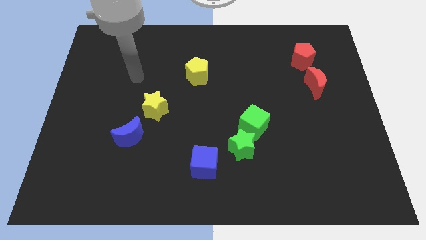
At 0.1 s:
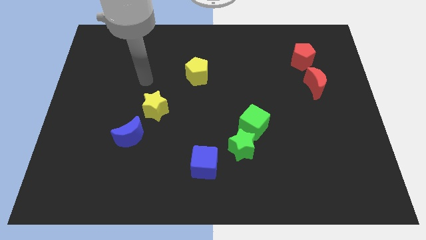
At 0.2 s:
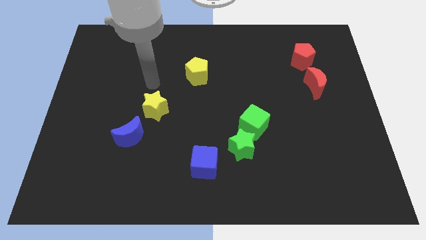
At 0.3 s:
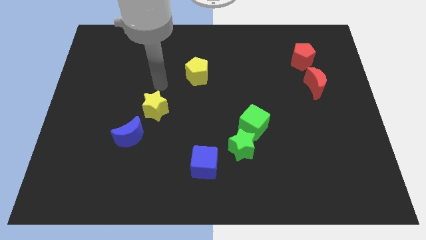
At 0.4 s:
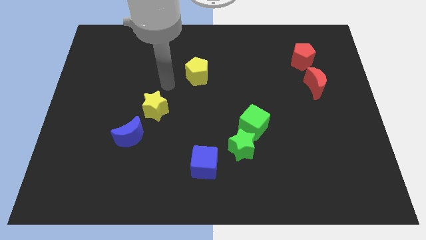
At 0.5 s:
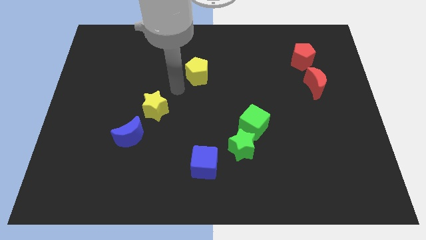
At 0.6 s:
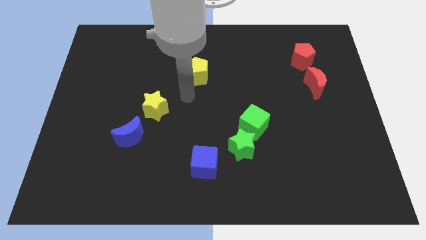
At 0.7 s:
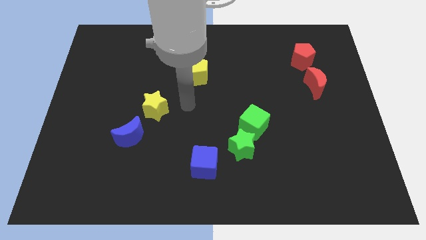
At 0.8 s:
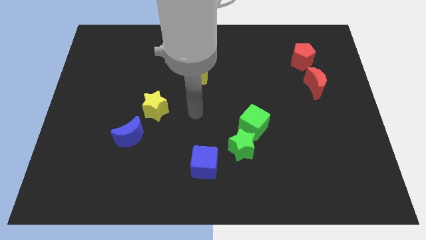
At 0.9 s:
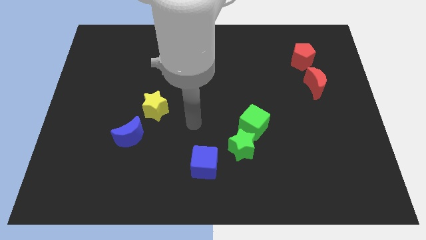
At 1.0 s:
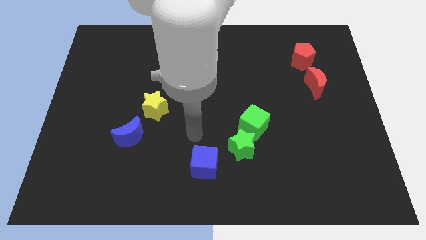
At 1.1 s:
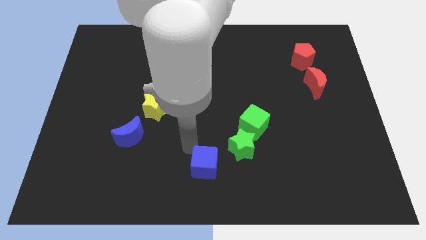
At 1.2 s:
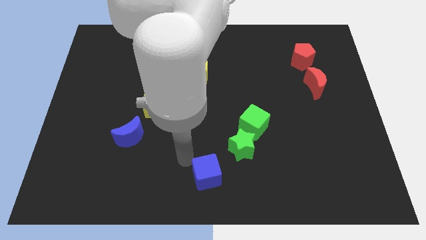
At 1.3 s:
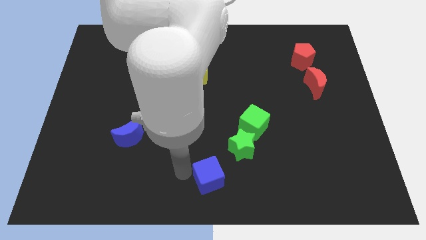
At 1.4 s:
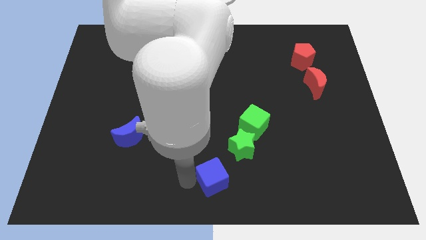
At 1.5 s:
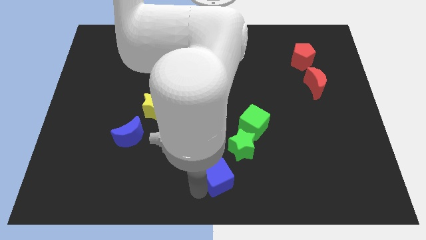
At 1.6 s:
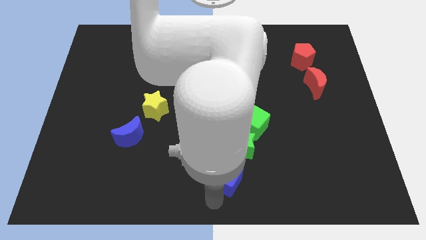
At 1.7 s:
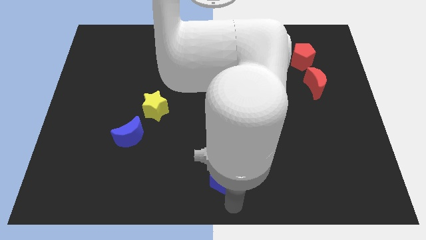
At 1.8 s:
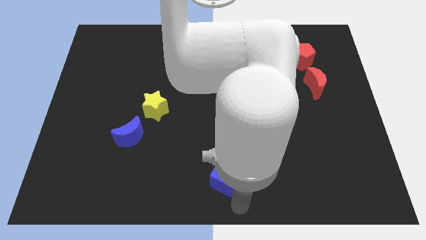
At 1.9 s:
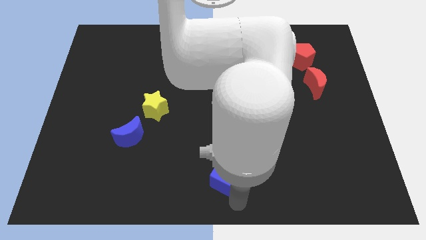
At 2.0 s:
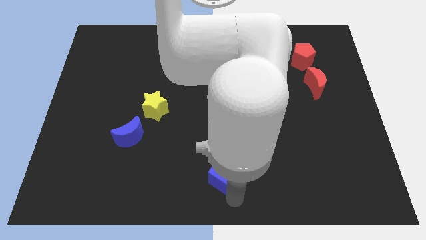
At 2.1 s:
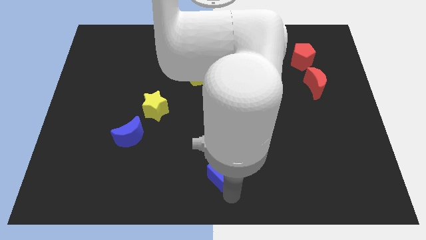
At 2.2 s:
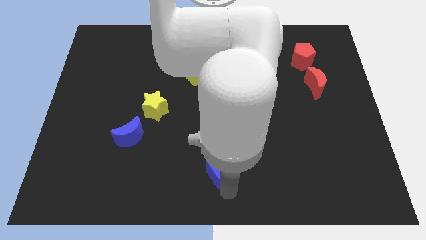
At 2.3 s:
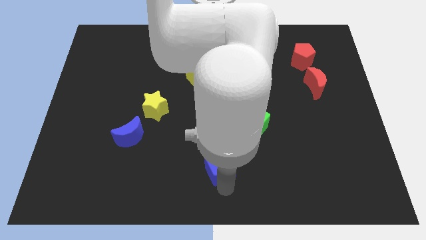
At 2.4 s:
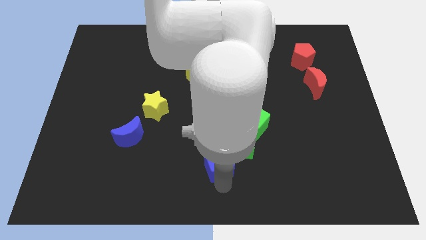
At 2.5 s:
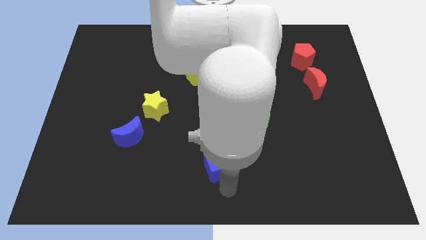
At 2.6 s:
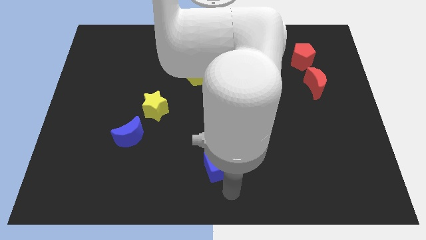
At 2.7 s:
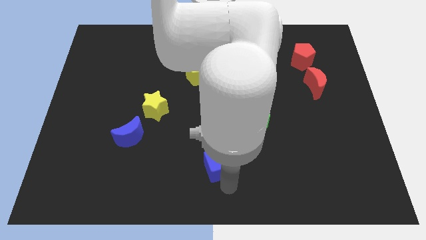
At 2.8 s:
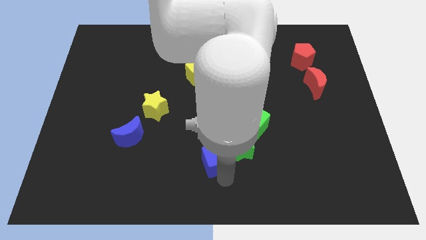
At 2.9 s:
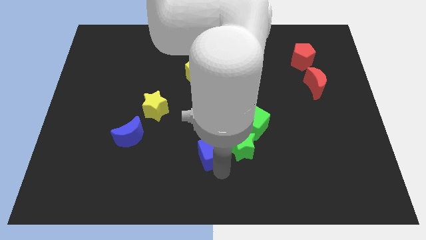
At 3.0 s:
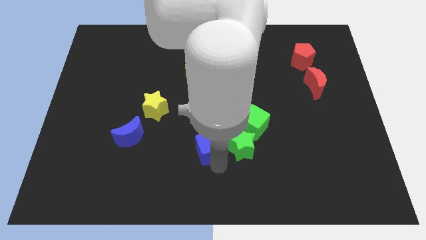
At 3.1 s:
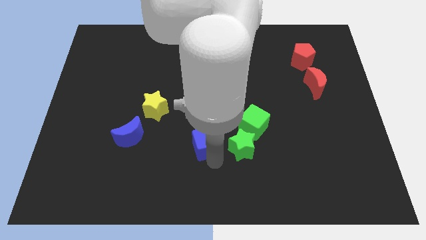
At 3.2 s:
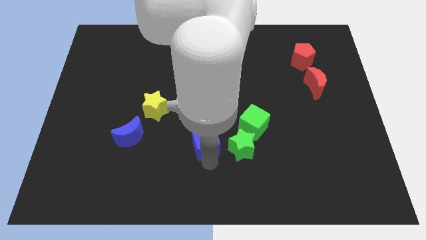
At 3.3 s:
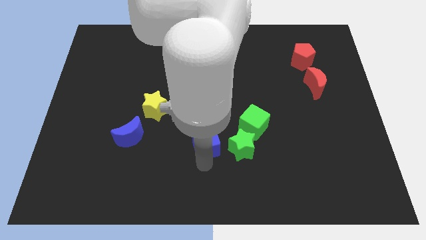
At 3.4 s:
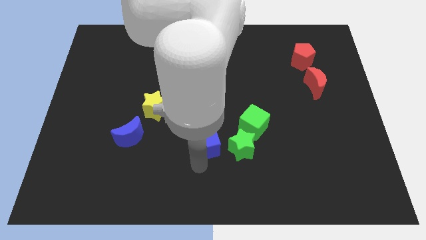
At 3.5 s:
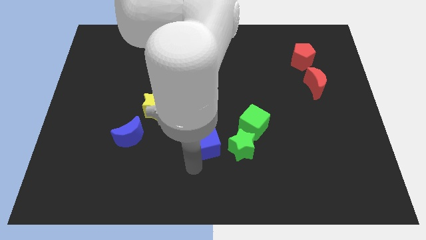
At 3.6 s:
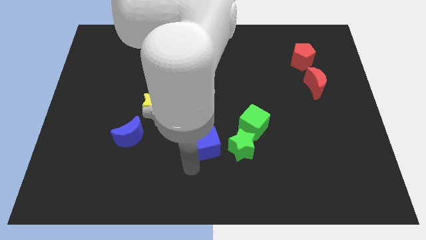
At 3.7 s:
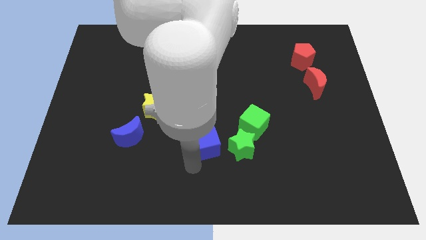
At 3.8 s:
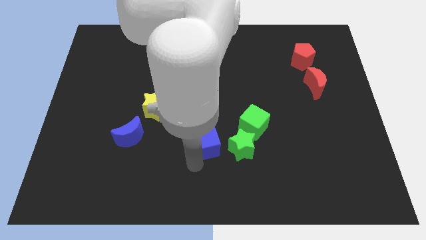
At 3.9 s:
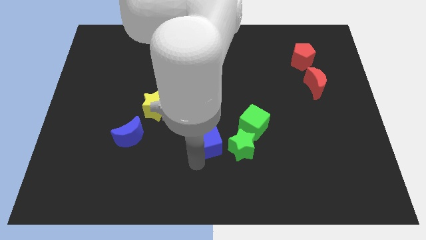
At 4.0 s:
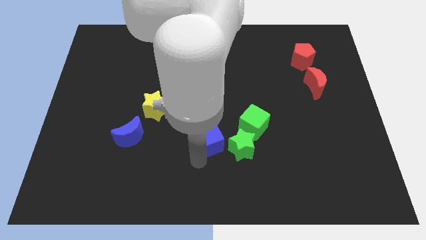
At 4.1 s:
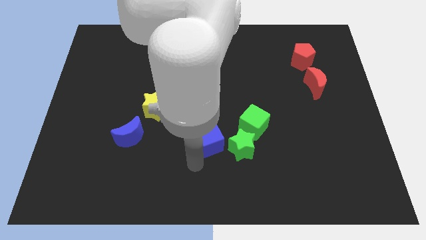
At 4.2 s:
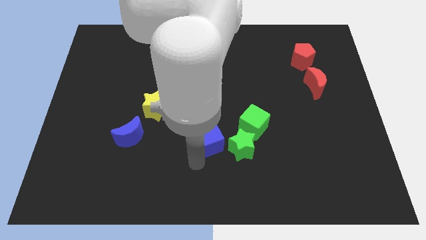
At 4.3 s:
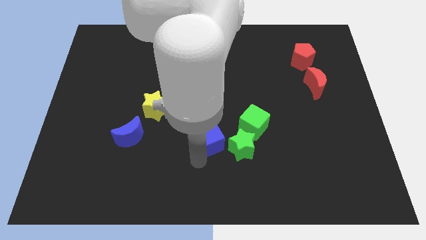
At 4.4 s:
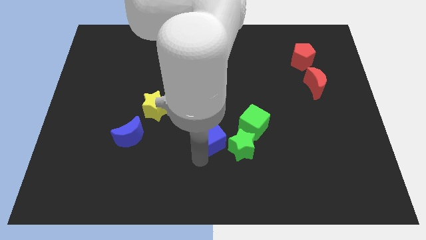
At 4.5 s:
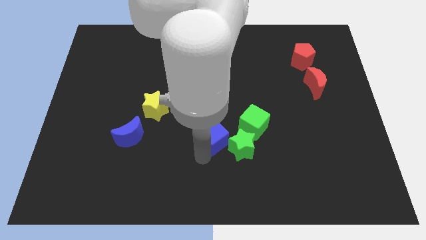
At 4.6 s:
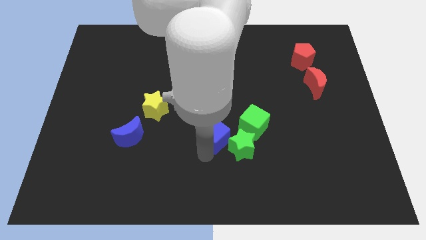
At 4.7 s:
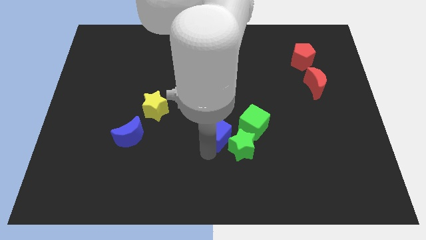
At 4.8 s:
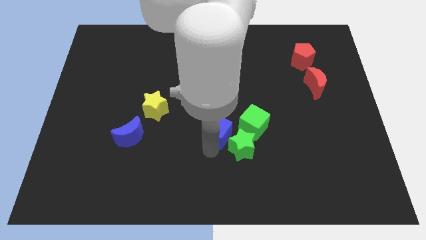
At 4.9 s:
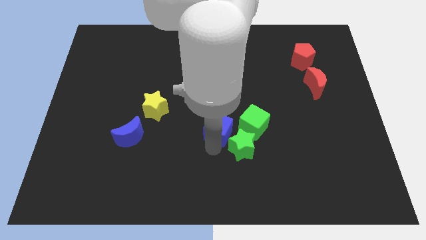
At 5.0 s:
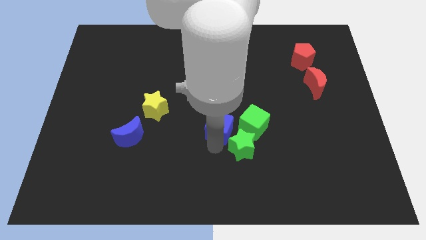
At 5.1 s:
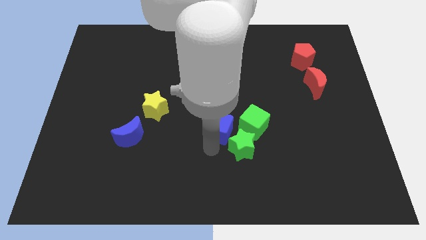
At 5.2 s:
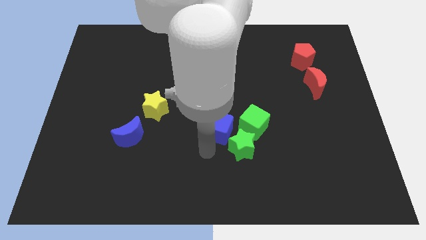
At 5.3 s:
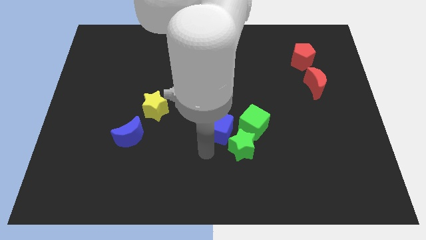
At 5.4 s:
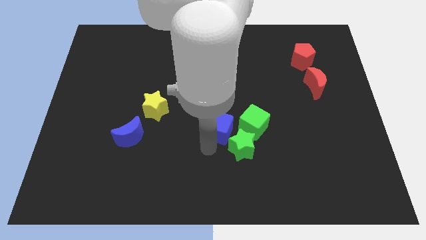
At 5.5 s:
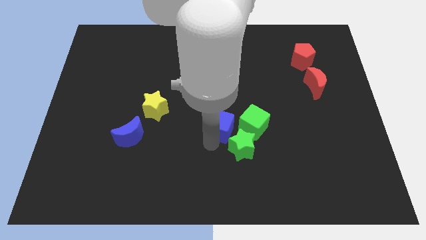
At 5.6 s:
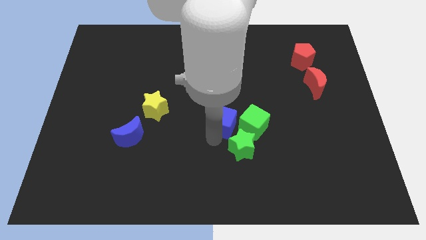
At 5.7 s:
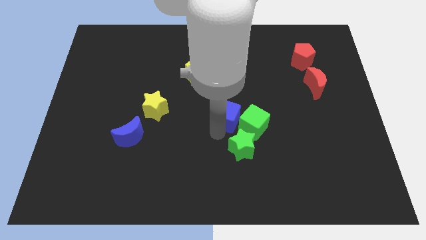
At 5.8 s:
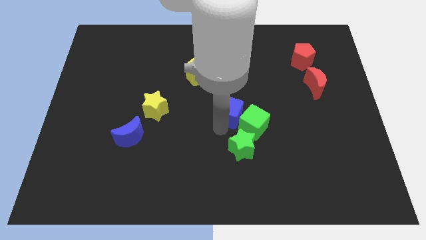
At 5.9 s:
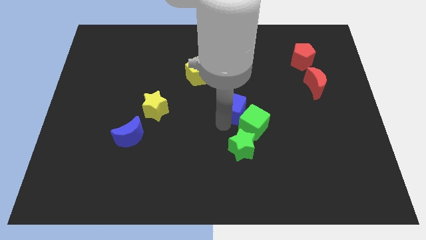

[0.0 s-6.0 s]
slide the blue cube to the top of the green cube

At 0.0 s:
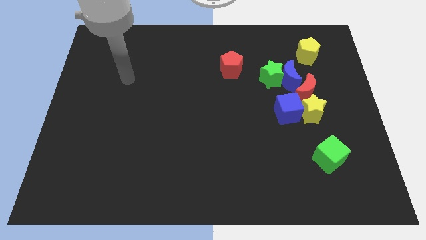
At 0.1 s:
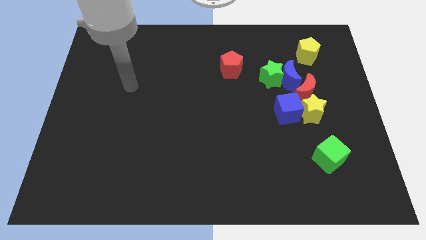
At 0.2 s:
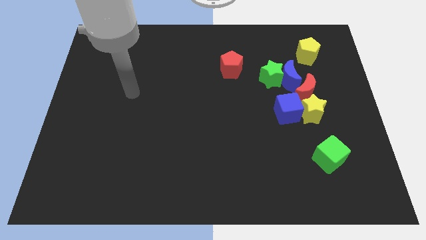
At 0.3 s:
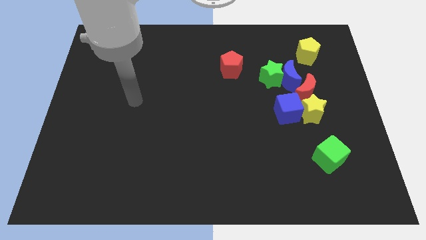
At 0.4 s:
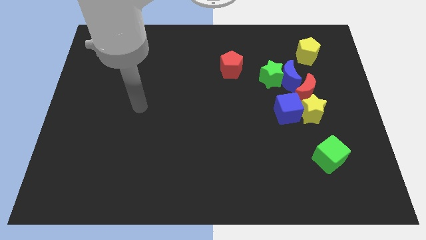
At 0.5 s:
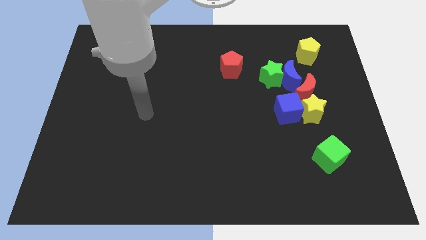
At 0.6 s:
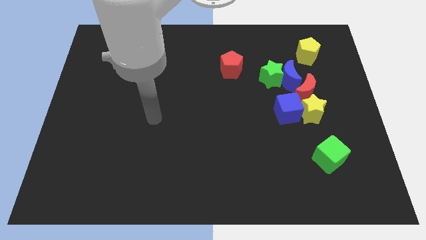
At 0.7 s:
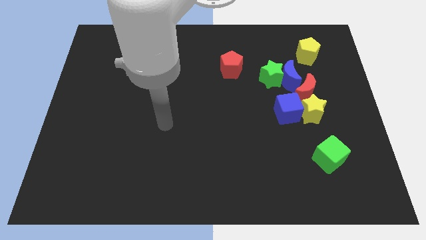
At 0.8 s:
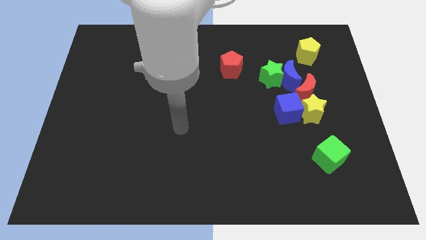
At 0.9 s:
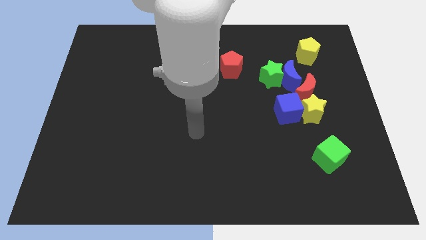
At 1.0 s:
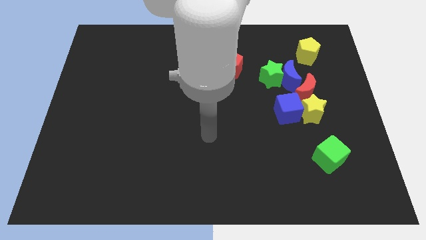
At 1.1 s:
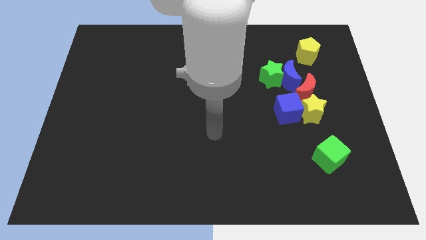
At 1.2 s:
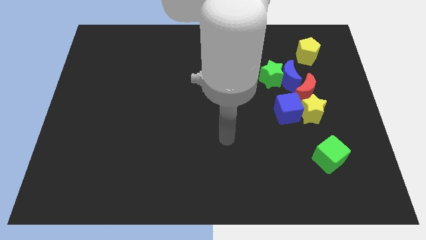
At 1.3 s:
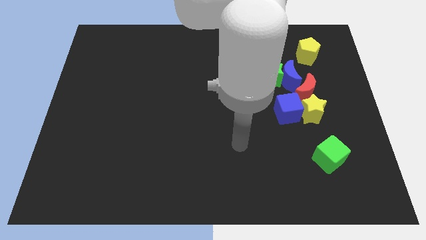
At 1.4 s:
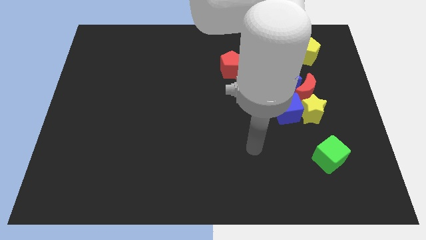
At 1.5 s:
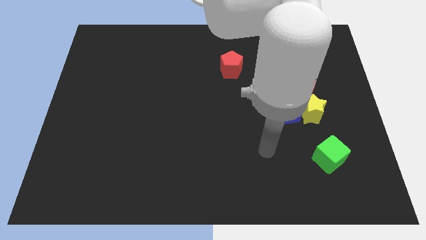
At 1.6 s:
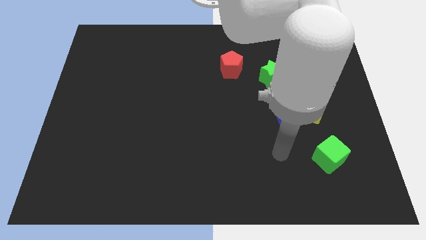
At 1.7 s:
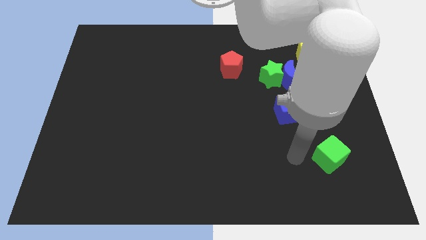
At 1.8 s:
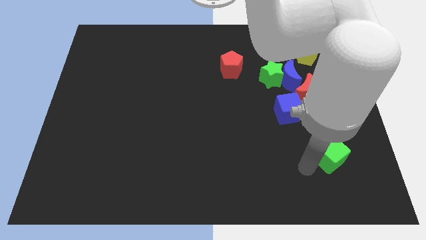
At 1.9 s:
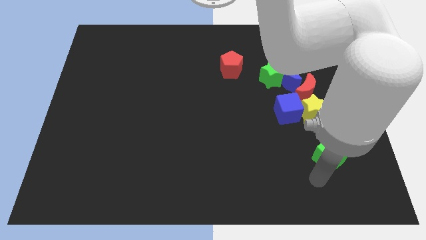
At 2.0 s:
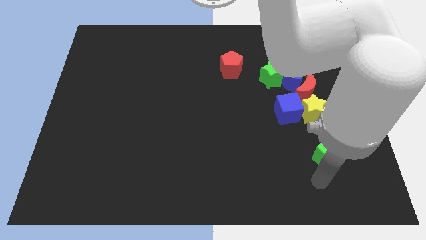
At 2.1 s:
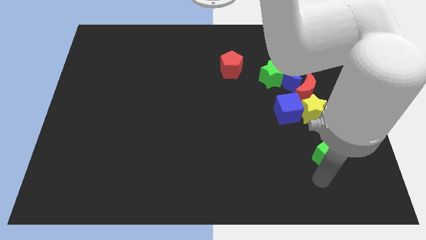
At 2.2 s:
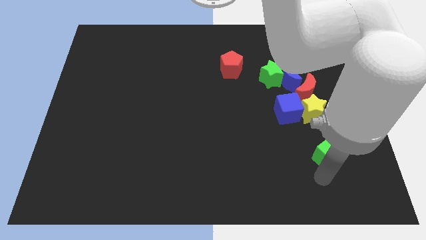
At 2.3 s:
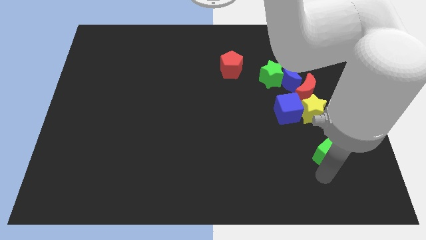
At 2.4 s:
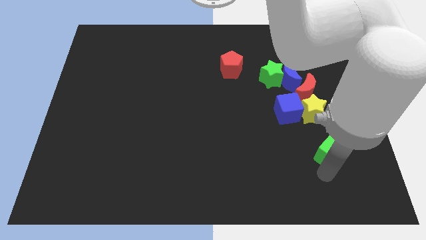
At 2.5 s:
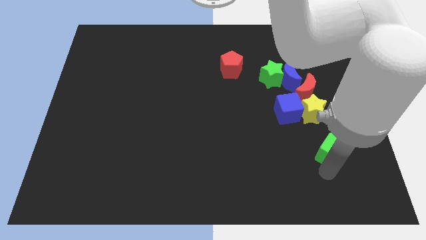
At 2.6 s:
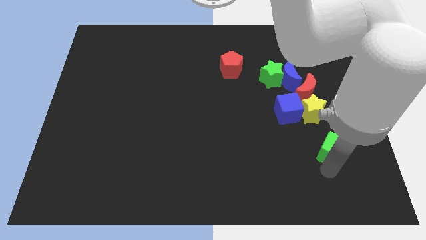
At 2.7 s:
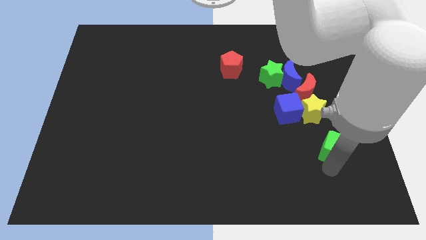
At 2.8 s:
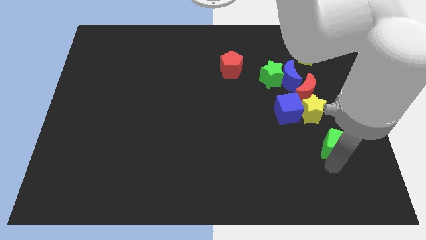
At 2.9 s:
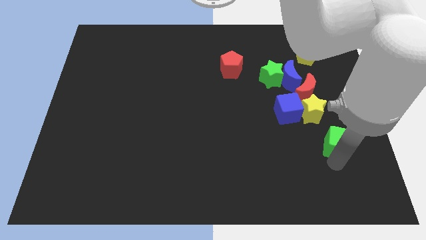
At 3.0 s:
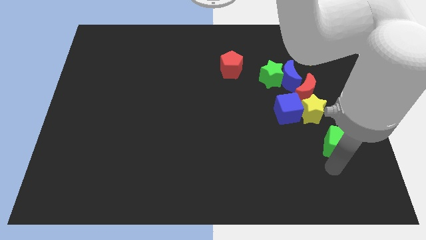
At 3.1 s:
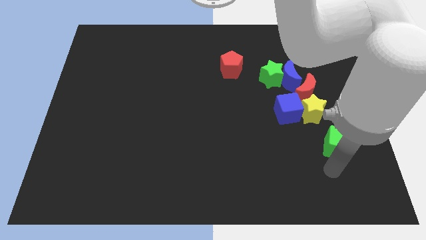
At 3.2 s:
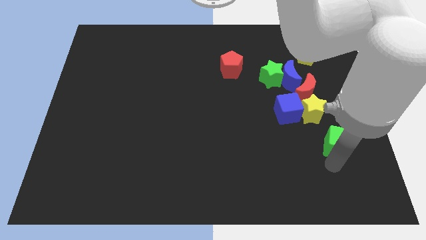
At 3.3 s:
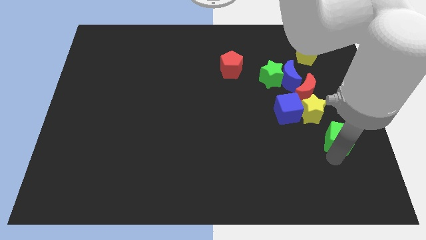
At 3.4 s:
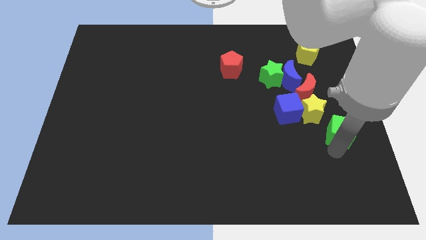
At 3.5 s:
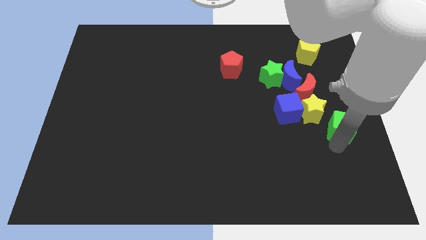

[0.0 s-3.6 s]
slide the green cube to the bottom right of the red moon
